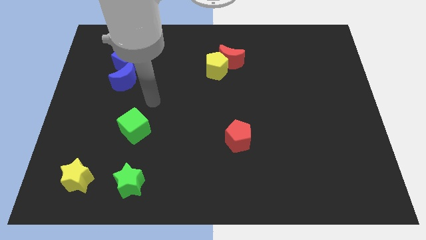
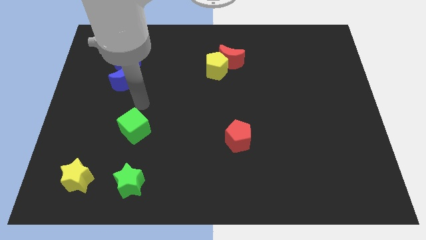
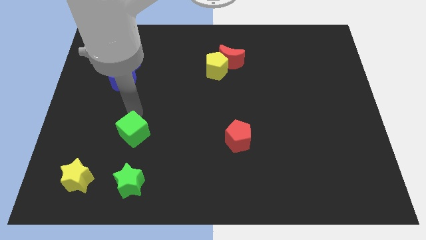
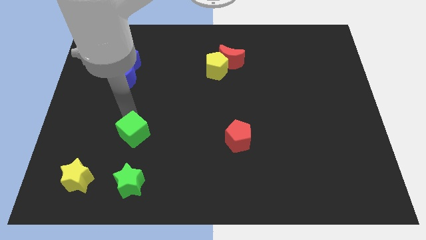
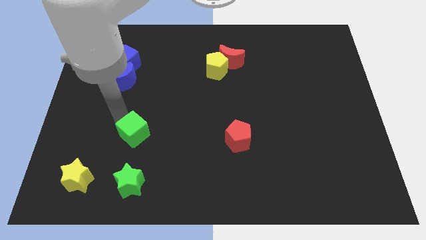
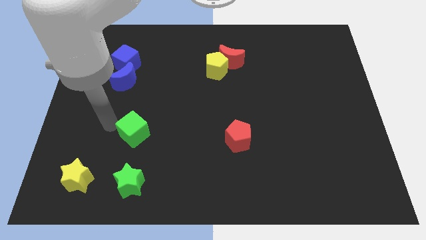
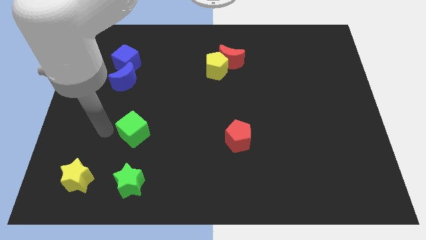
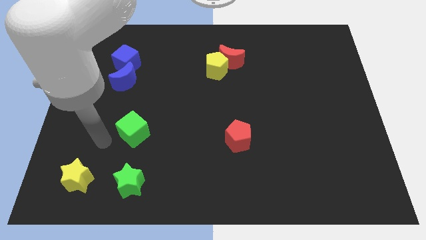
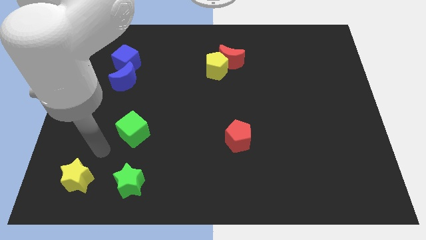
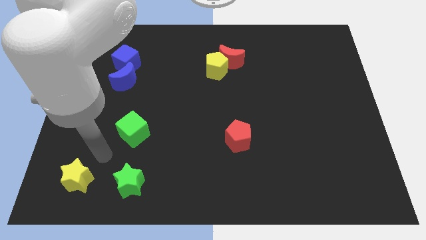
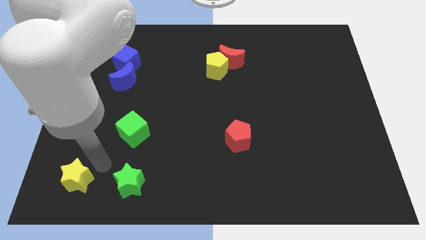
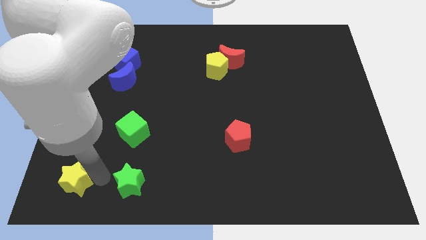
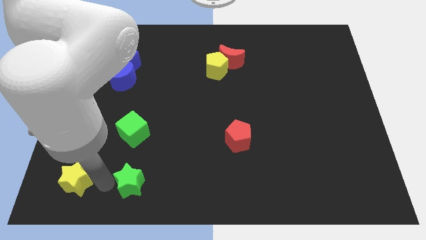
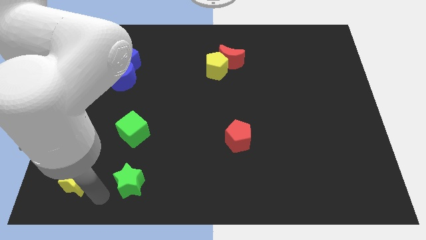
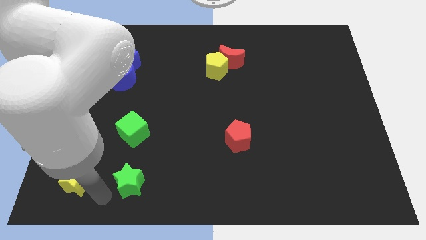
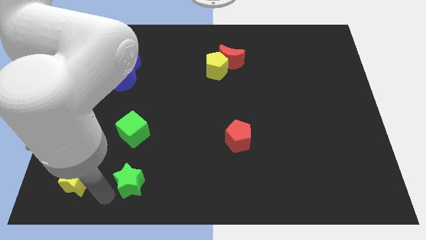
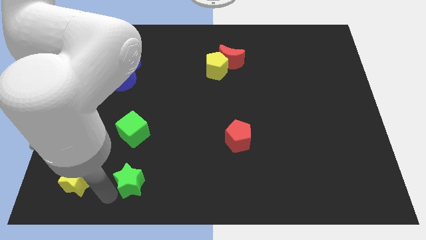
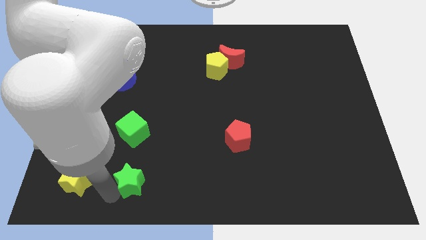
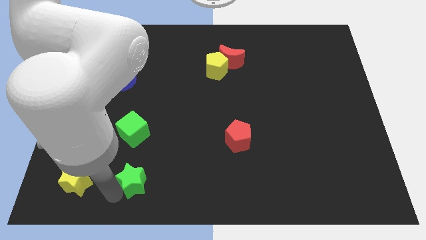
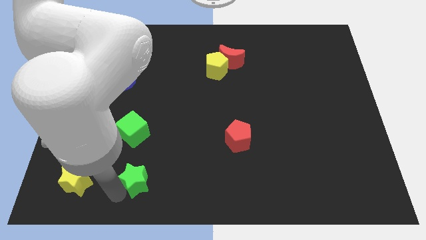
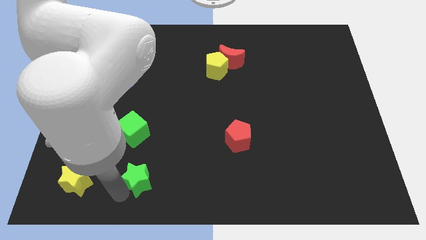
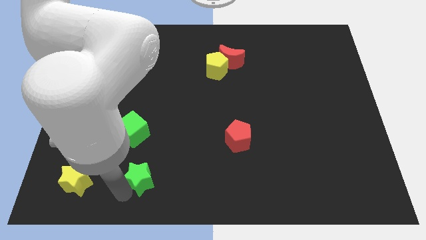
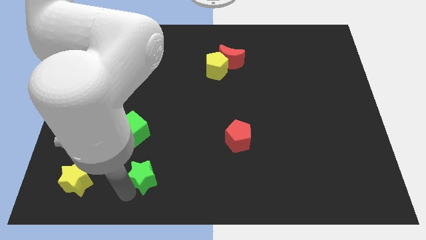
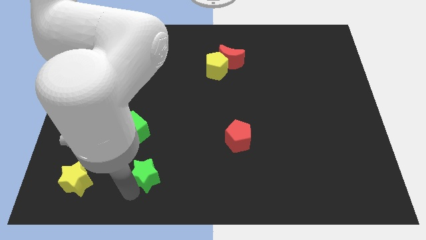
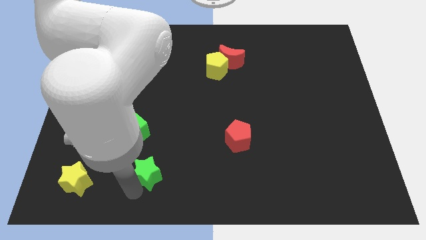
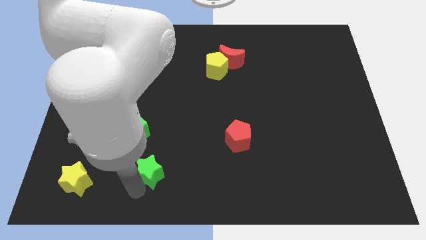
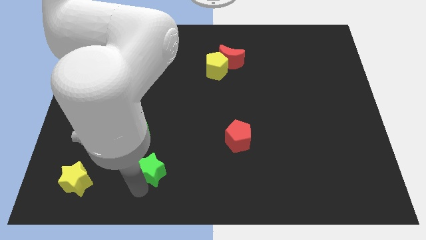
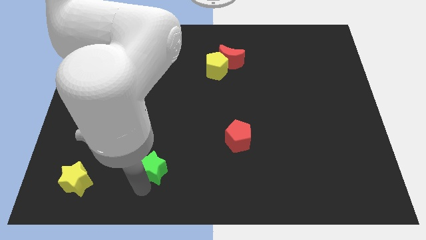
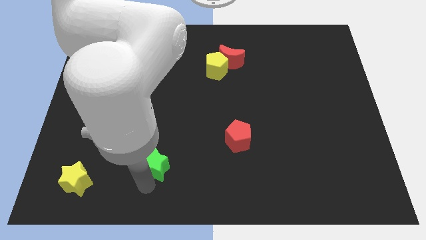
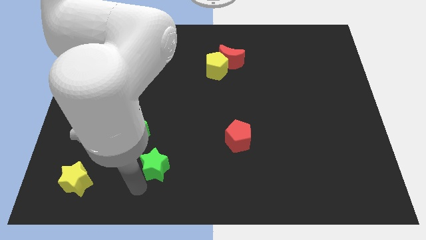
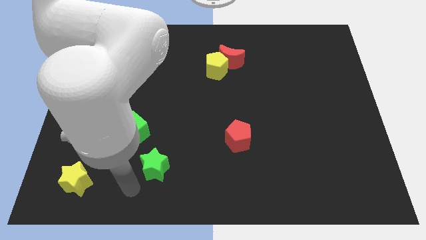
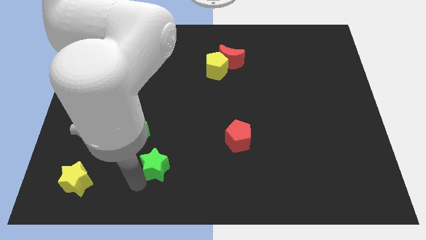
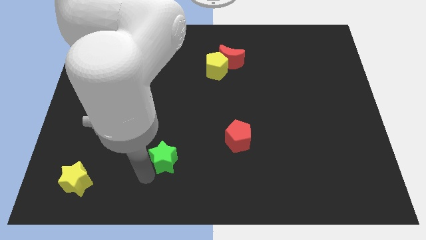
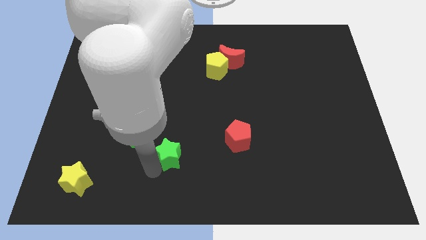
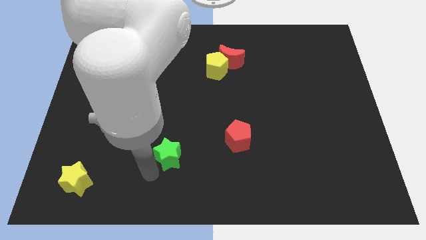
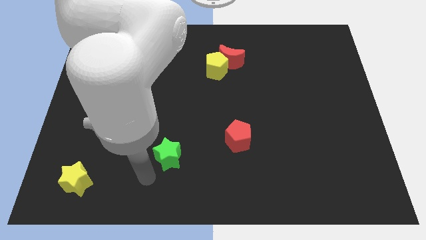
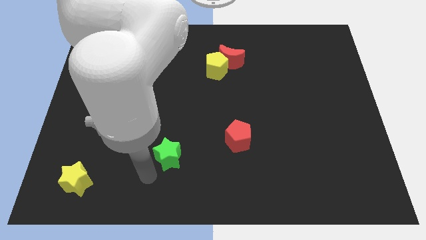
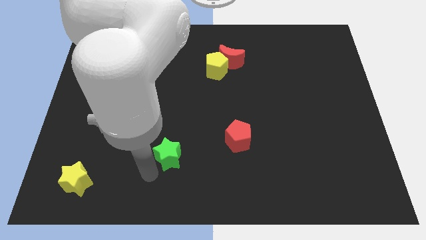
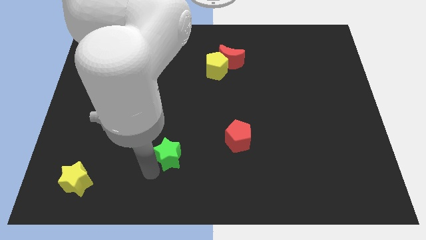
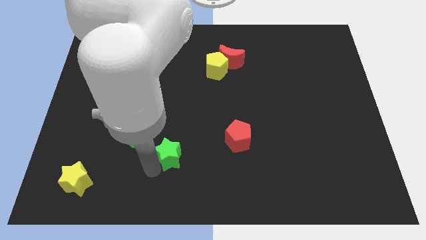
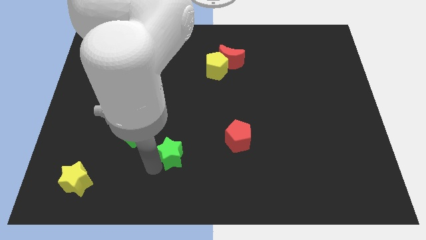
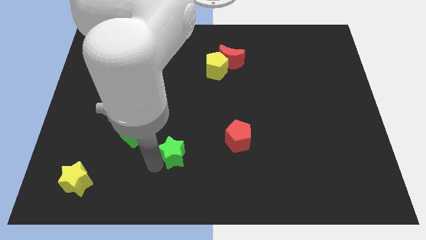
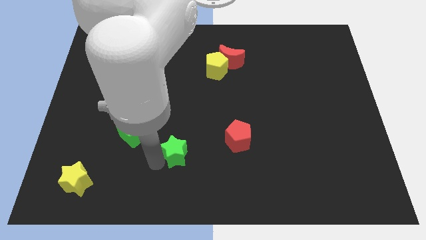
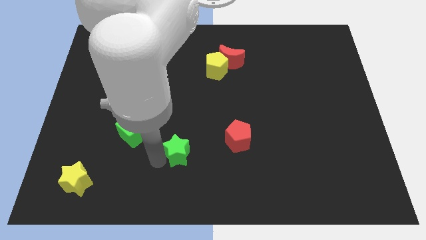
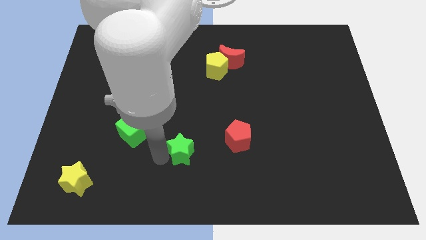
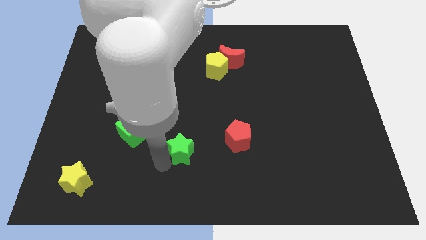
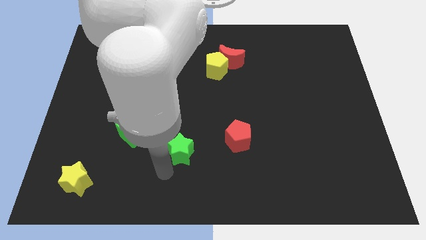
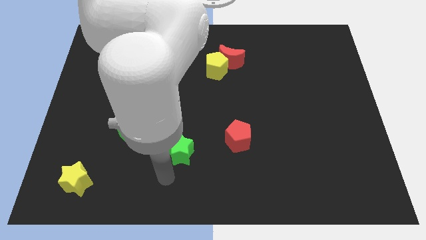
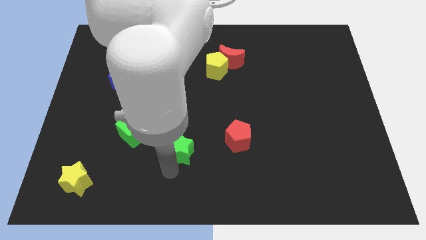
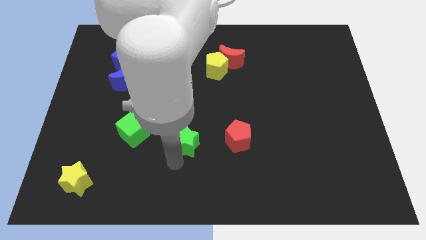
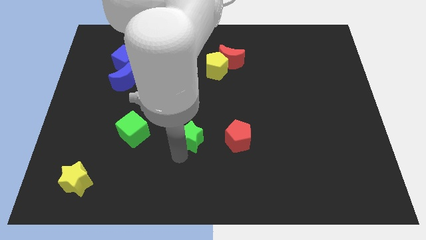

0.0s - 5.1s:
push the green star to the center

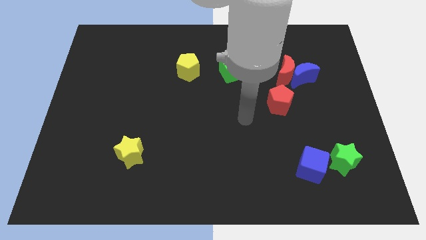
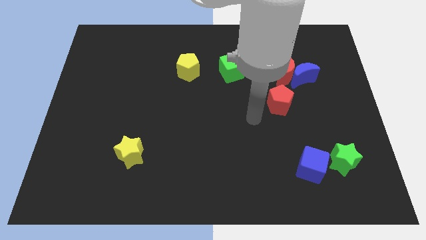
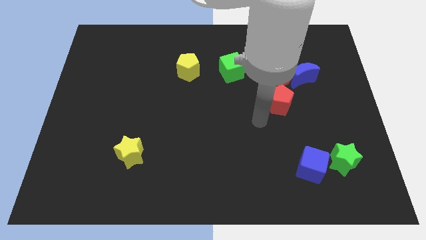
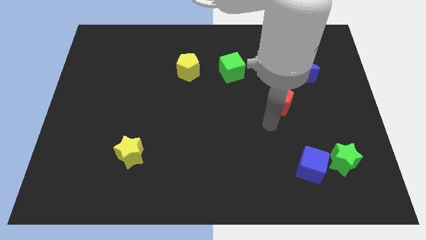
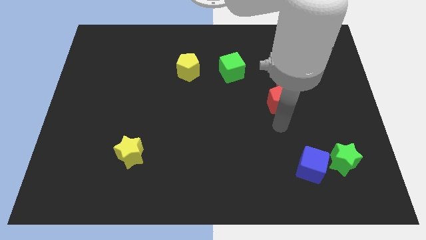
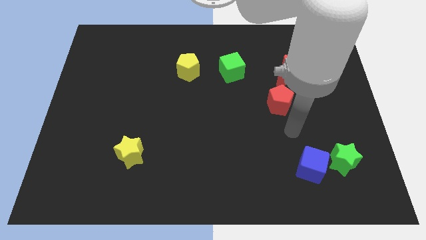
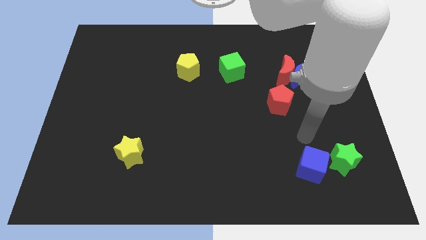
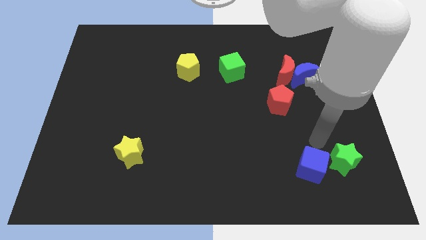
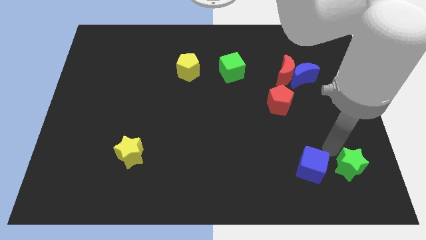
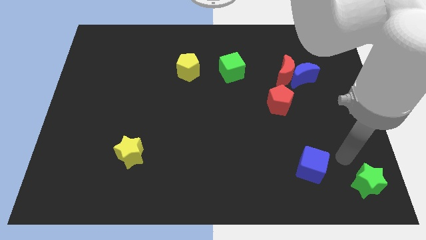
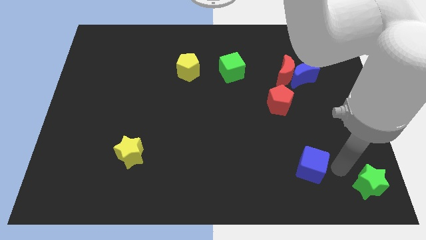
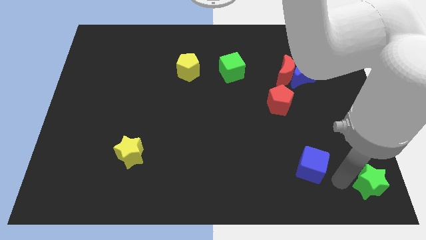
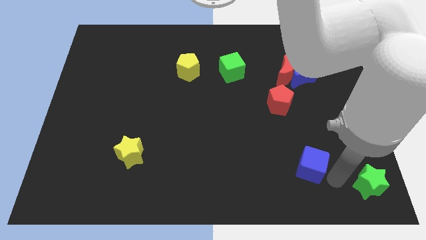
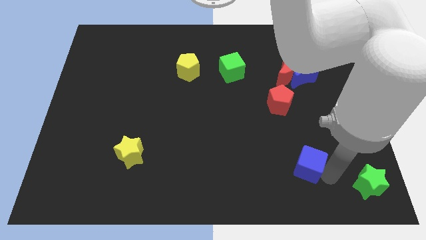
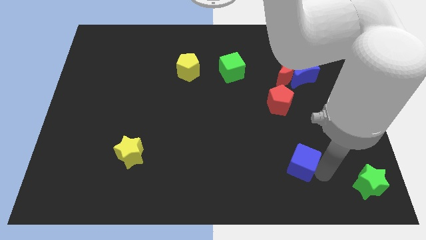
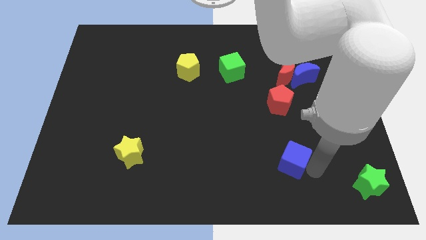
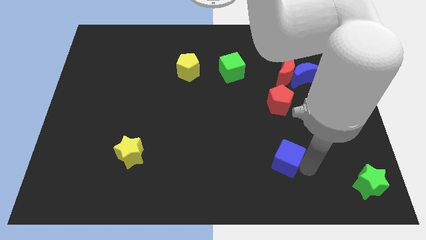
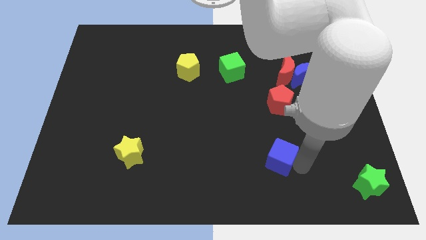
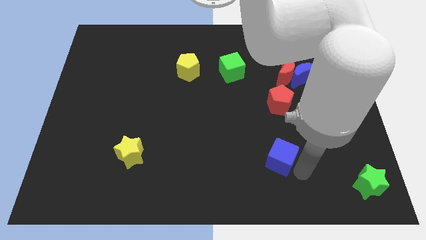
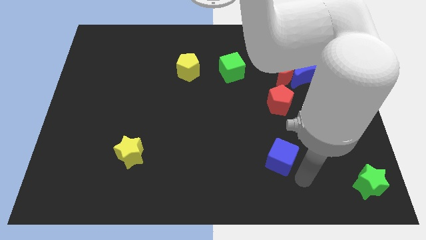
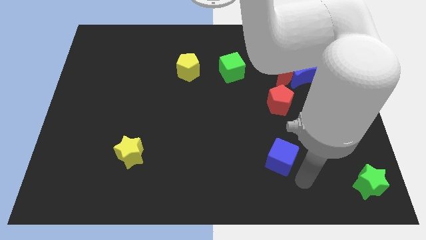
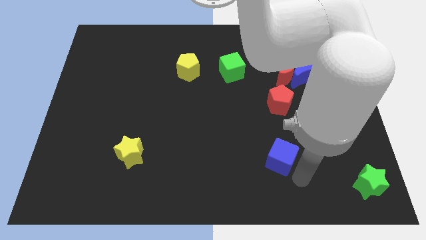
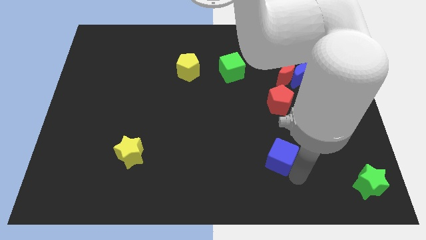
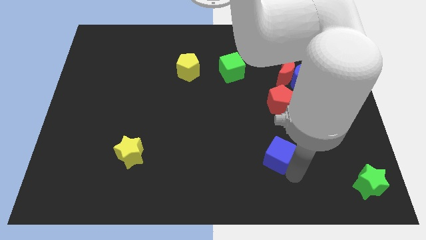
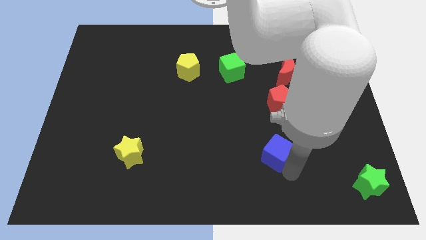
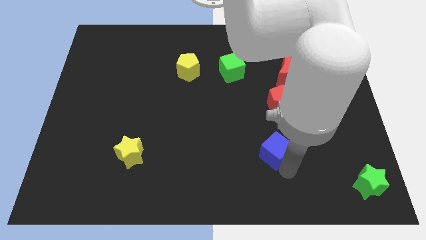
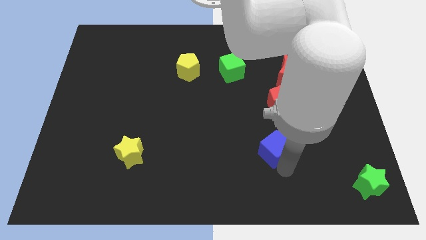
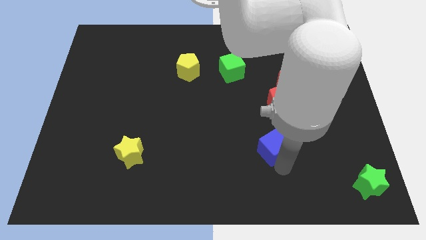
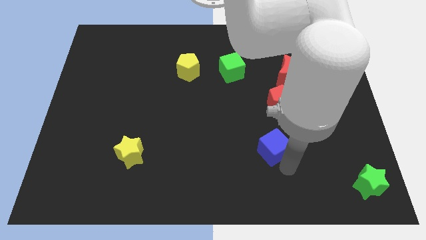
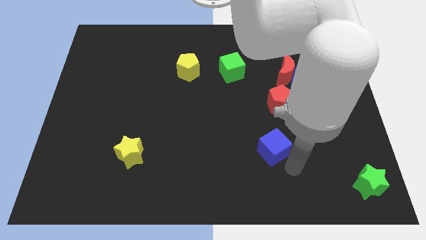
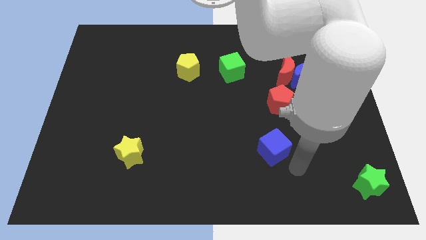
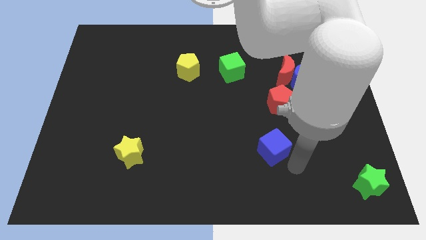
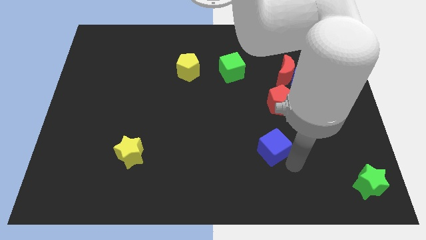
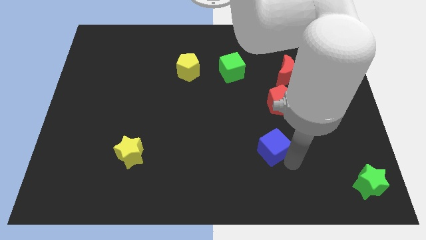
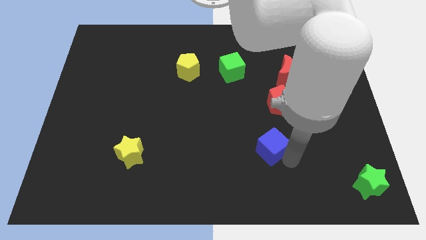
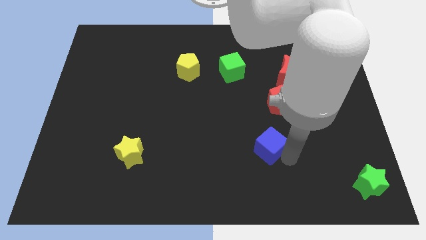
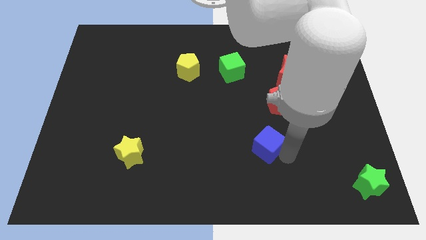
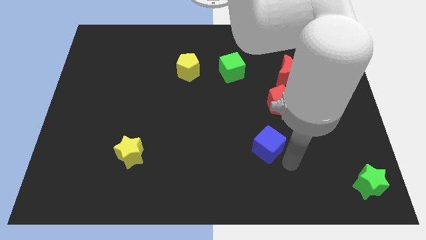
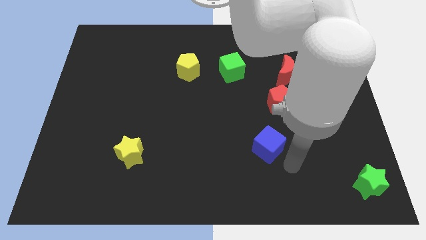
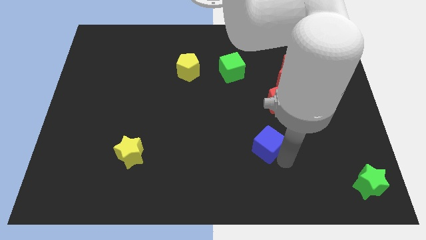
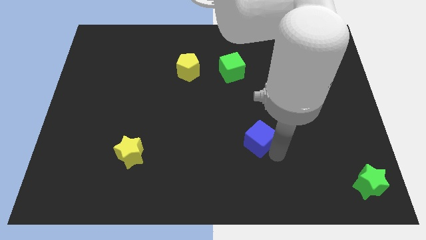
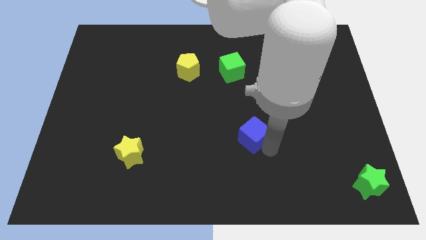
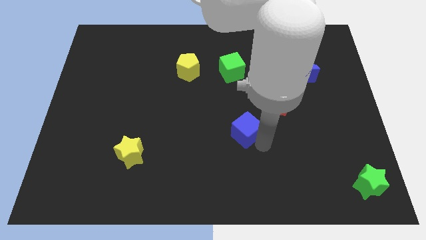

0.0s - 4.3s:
slide the blue cube to the center of the board
